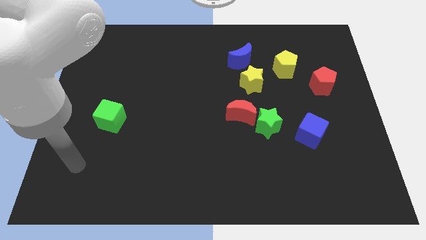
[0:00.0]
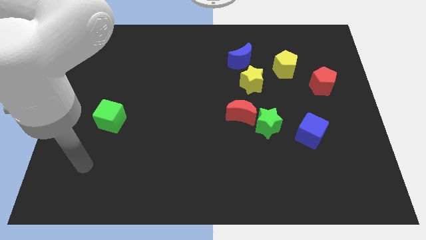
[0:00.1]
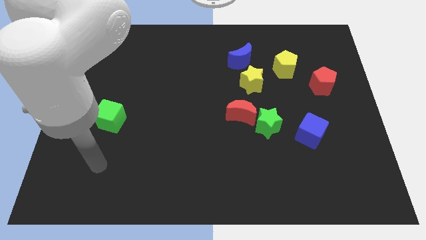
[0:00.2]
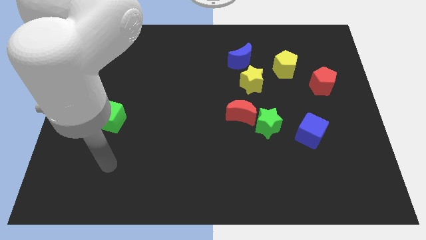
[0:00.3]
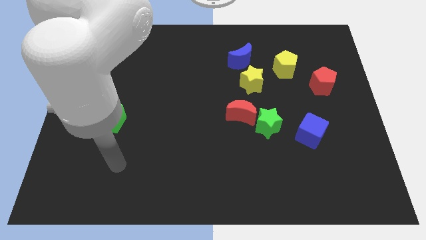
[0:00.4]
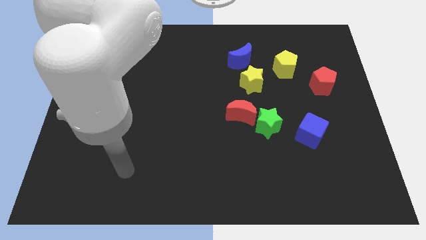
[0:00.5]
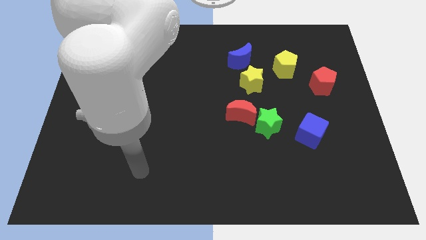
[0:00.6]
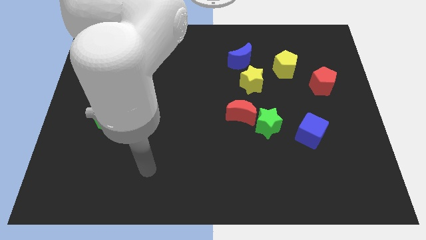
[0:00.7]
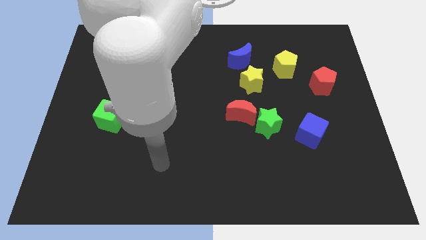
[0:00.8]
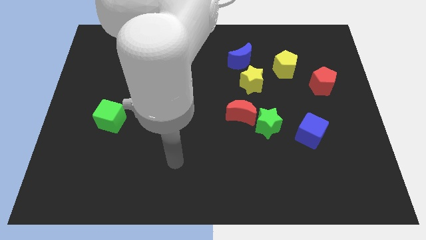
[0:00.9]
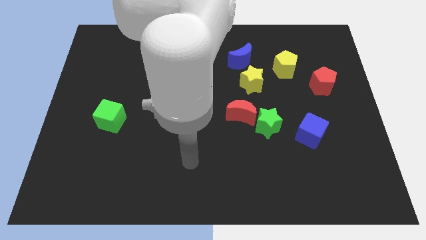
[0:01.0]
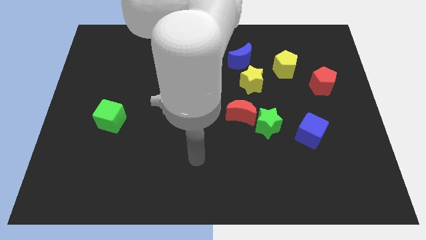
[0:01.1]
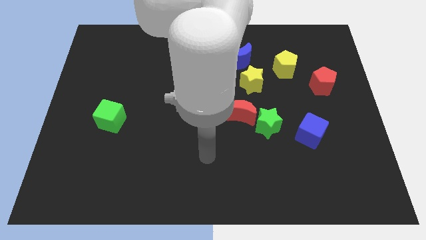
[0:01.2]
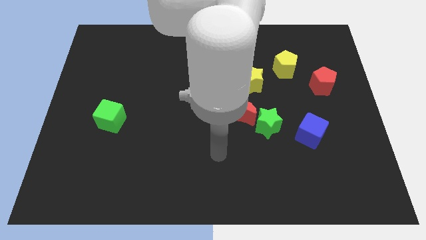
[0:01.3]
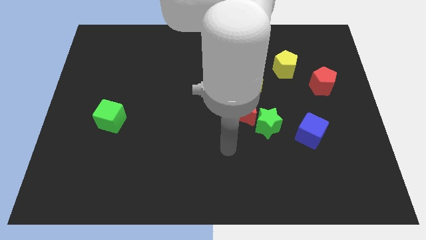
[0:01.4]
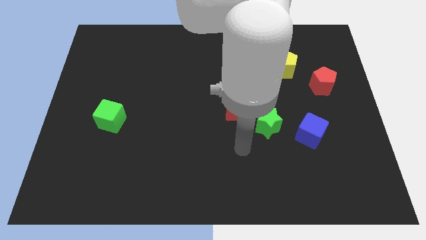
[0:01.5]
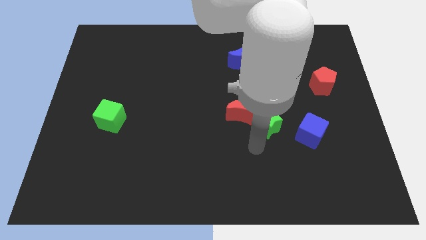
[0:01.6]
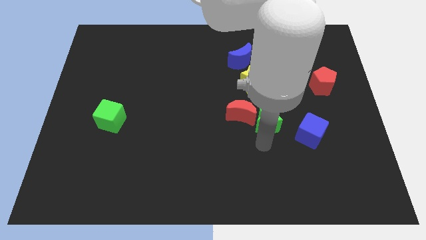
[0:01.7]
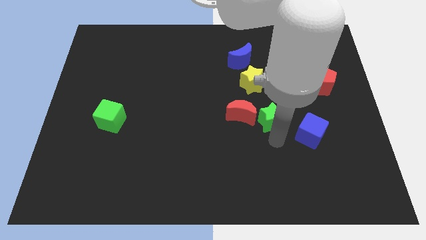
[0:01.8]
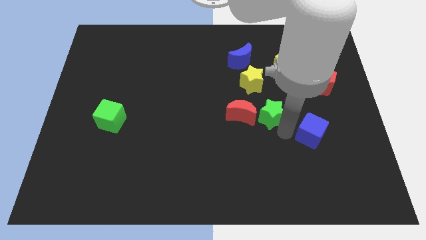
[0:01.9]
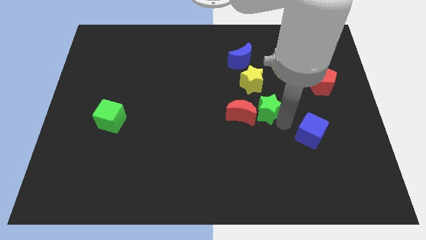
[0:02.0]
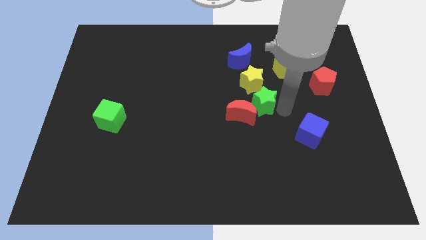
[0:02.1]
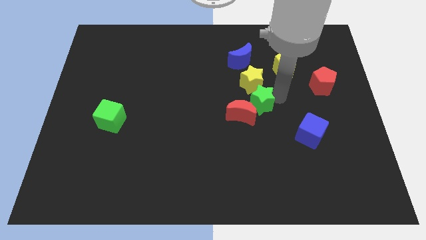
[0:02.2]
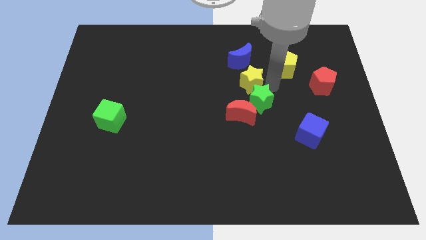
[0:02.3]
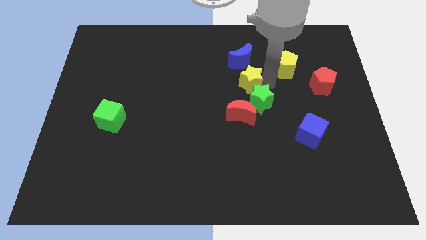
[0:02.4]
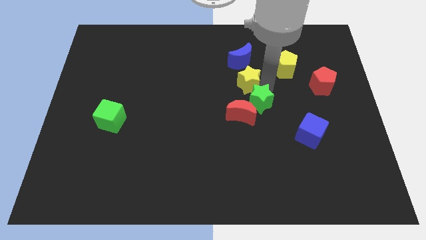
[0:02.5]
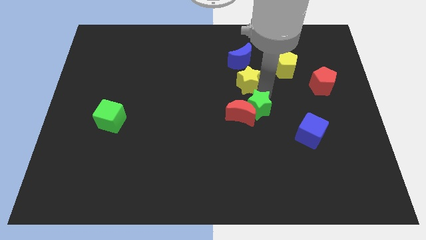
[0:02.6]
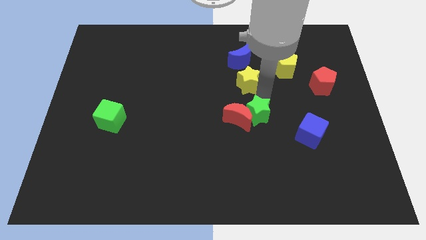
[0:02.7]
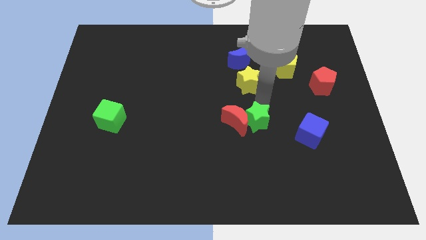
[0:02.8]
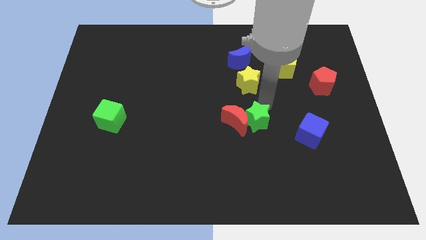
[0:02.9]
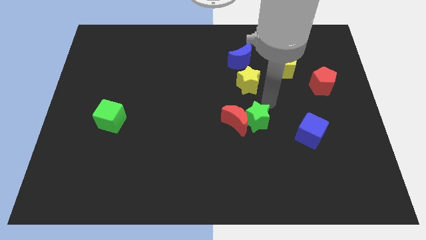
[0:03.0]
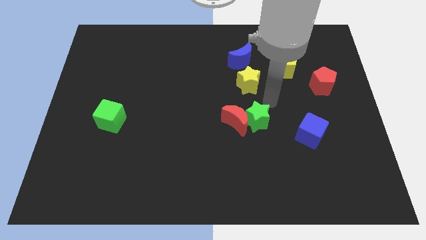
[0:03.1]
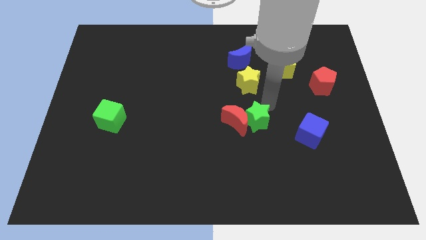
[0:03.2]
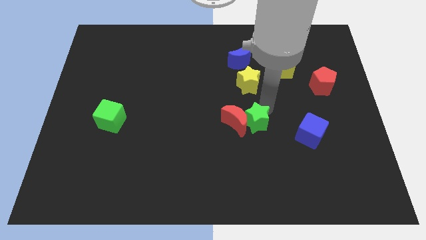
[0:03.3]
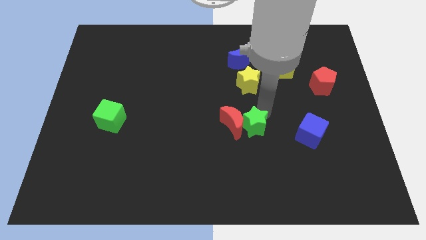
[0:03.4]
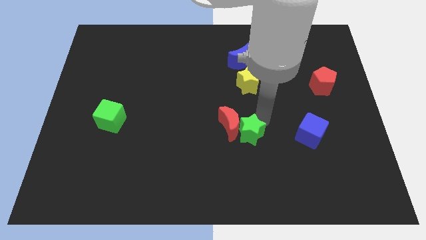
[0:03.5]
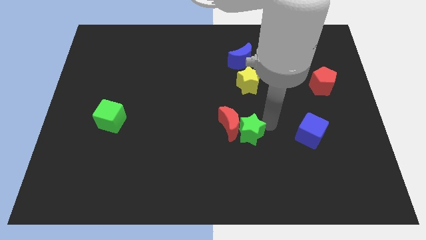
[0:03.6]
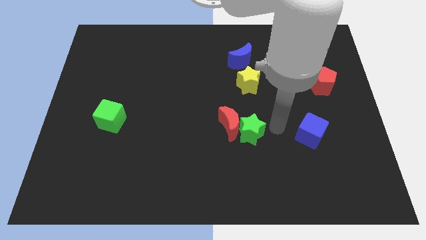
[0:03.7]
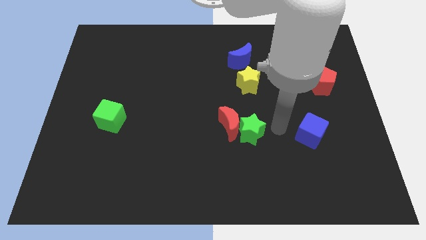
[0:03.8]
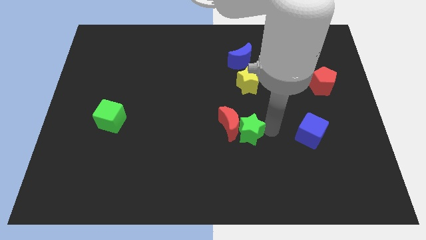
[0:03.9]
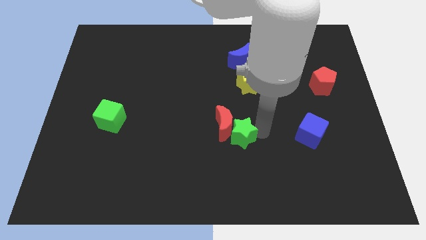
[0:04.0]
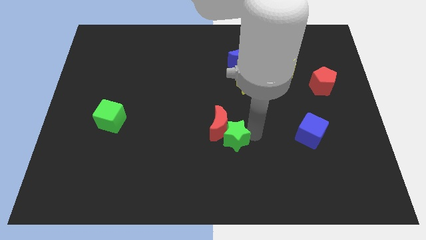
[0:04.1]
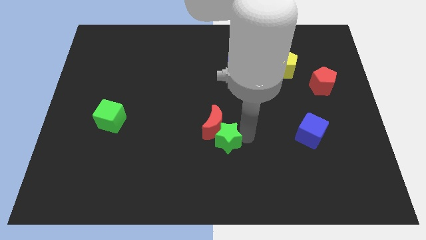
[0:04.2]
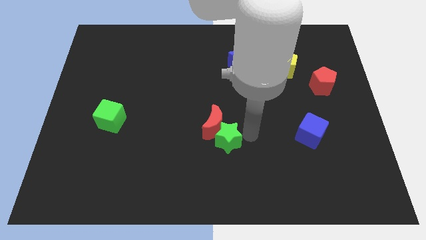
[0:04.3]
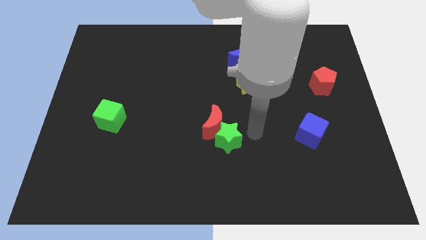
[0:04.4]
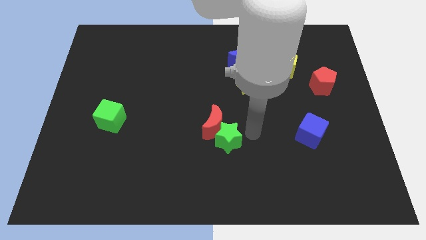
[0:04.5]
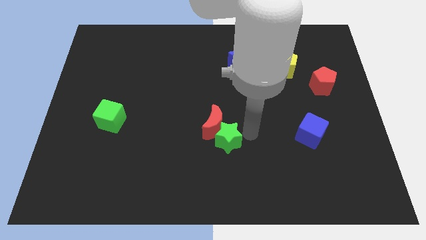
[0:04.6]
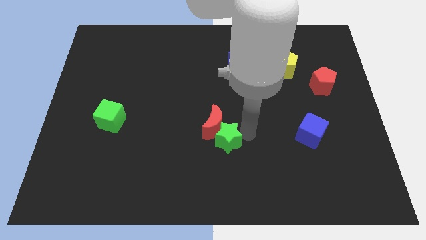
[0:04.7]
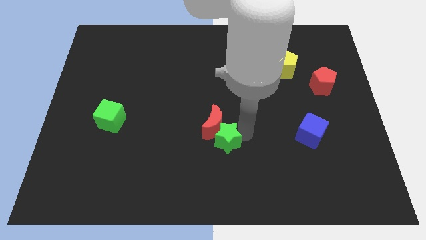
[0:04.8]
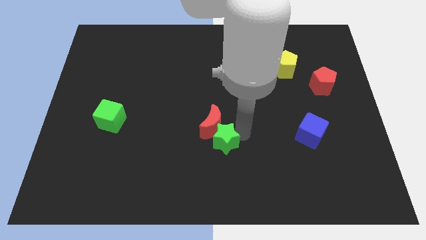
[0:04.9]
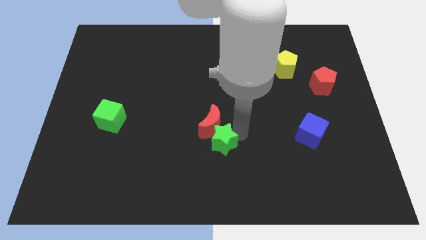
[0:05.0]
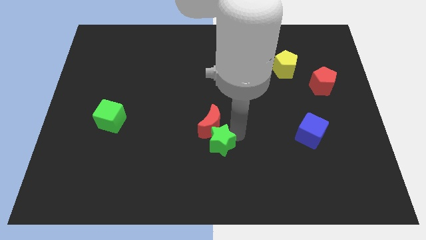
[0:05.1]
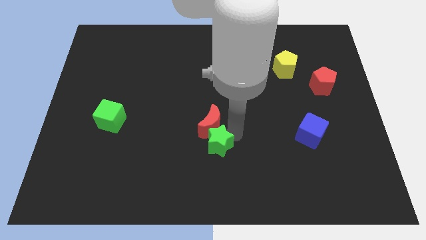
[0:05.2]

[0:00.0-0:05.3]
separate the green star from the red moon and blue cube

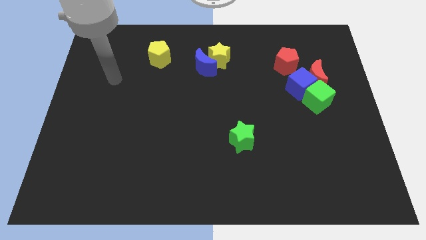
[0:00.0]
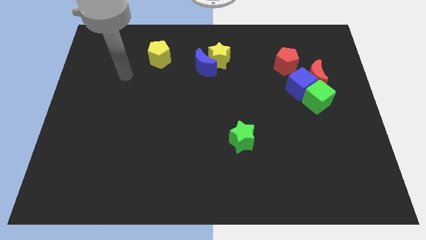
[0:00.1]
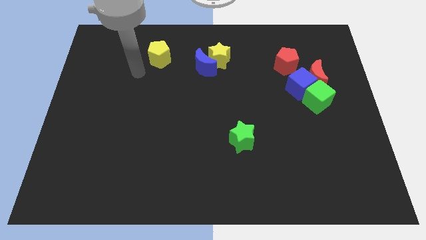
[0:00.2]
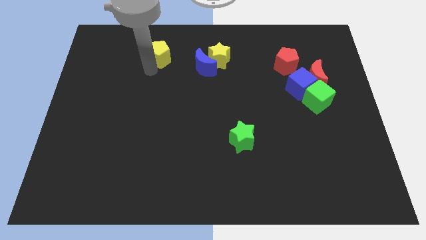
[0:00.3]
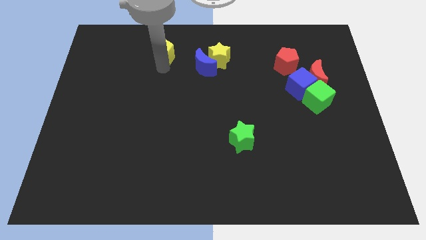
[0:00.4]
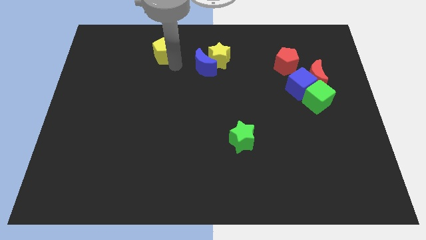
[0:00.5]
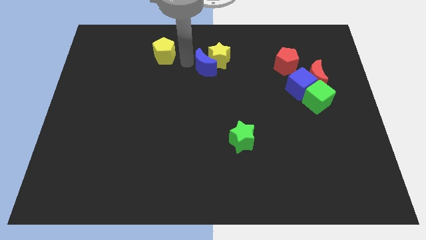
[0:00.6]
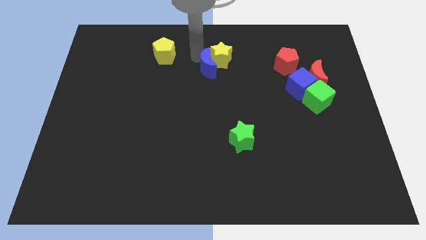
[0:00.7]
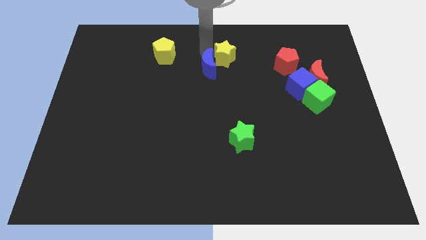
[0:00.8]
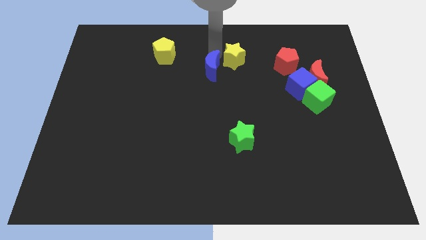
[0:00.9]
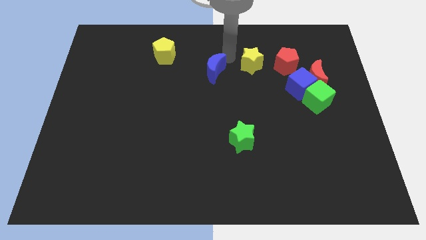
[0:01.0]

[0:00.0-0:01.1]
separate the blue moon from the yellow star

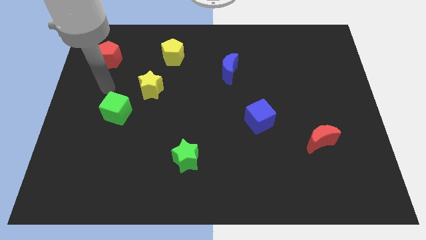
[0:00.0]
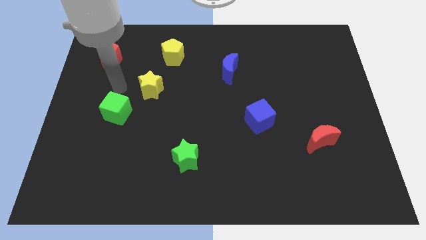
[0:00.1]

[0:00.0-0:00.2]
pull the green cube apart from the yellow star

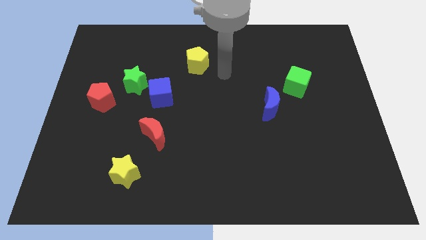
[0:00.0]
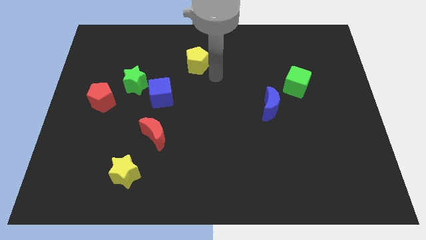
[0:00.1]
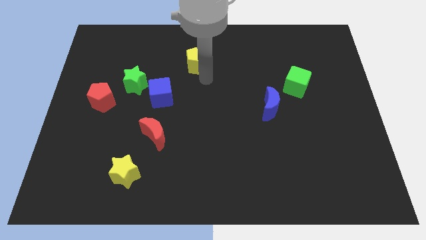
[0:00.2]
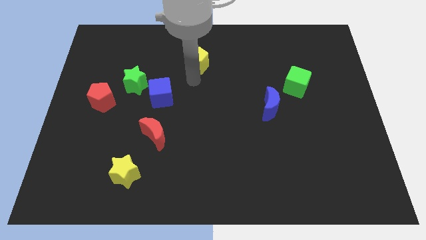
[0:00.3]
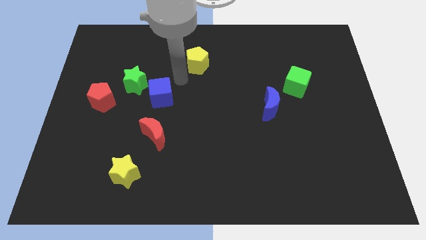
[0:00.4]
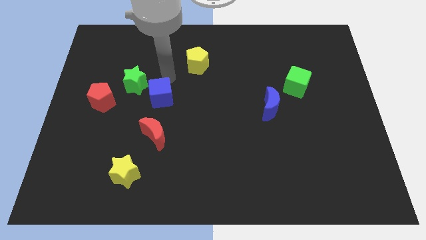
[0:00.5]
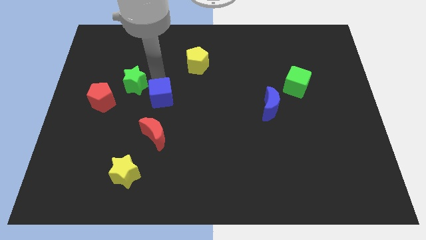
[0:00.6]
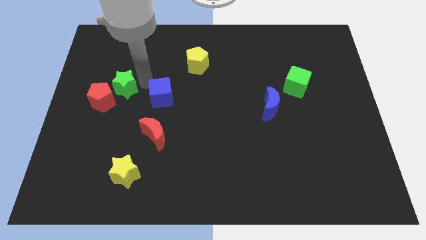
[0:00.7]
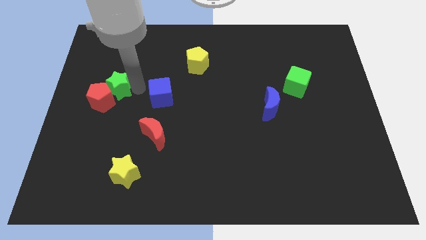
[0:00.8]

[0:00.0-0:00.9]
move the blue cube away from the green star

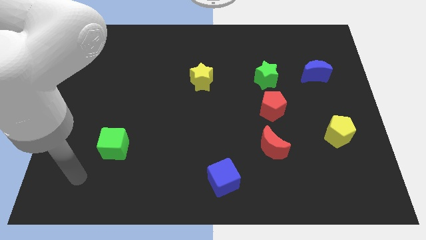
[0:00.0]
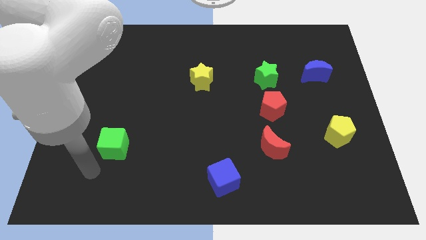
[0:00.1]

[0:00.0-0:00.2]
pull the red pentagon apart from the green star

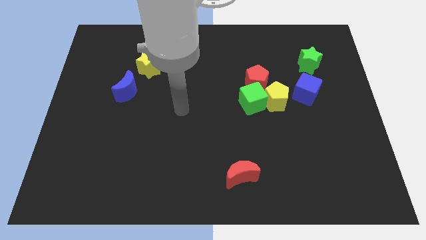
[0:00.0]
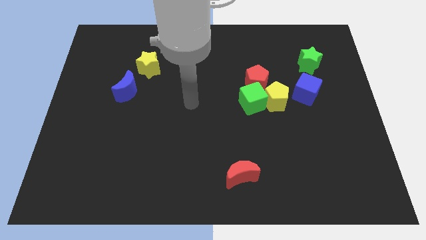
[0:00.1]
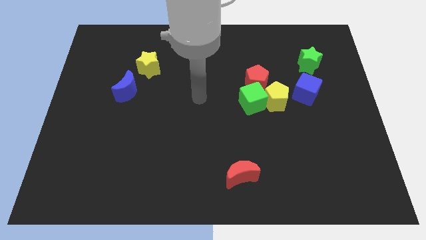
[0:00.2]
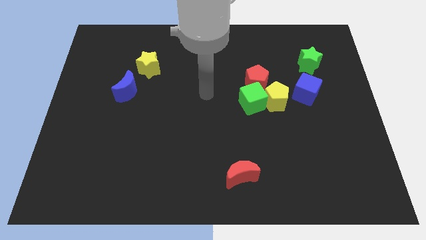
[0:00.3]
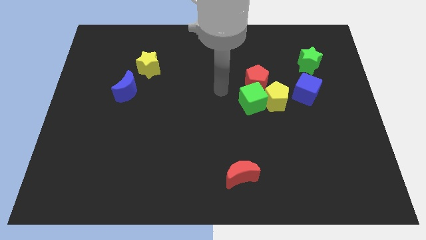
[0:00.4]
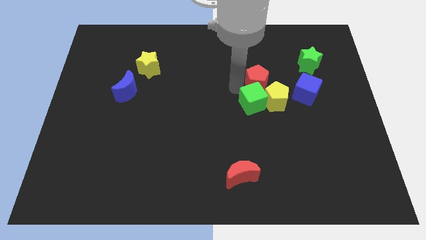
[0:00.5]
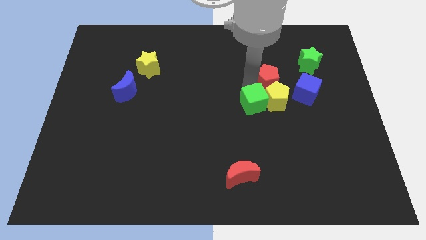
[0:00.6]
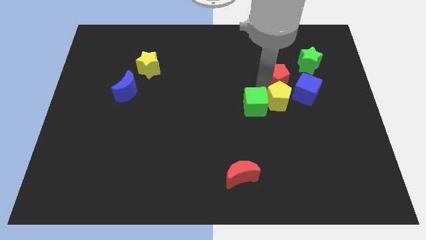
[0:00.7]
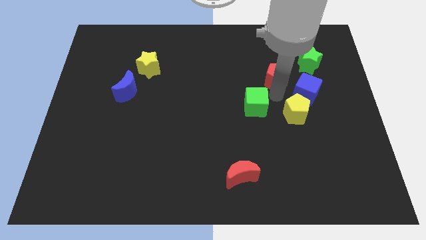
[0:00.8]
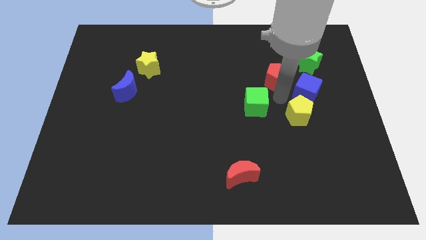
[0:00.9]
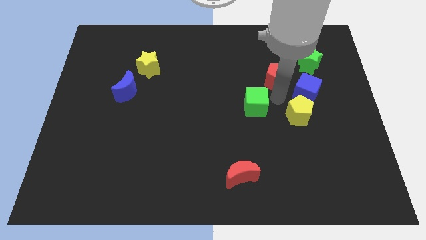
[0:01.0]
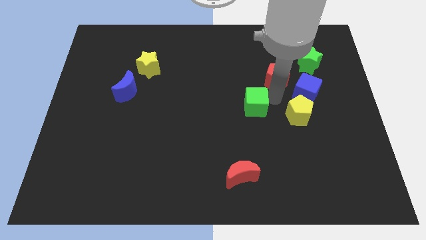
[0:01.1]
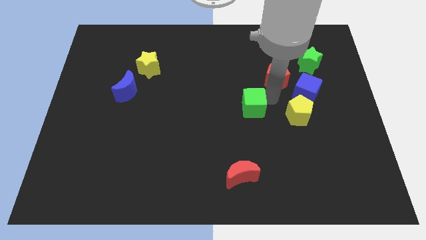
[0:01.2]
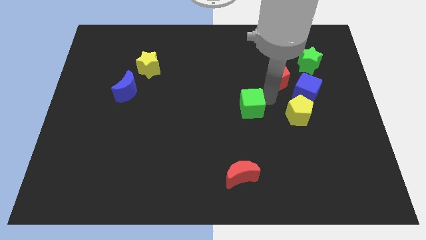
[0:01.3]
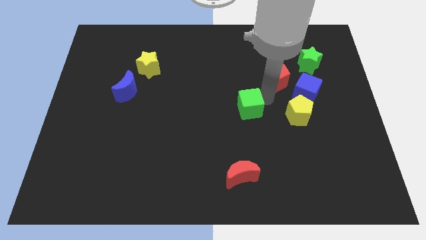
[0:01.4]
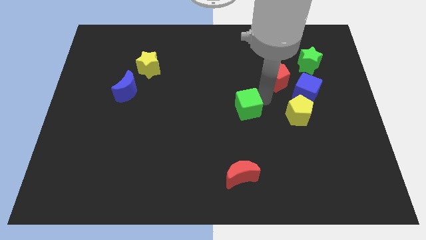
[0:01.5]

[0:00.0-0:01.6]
separate the green cube from the yellow pentagon and red pentagon
